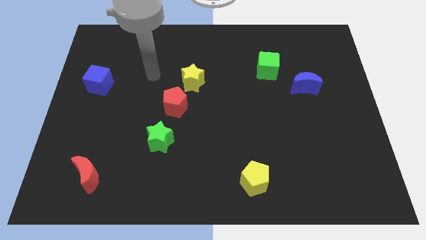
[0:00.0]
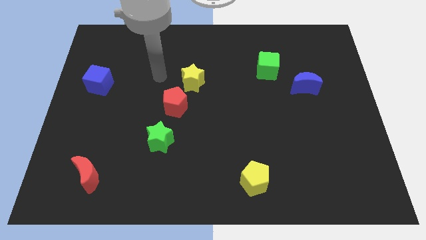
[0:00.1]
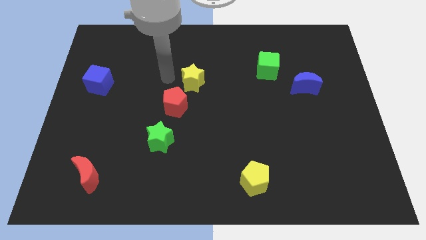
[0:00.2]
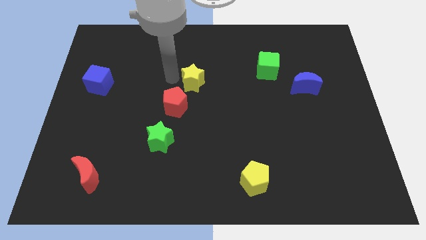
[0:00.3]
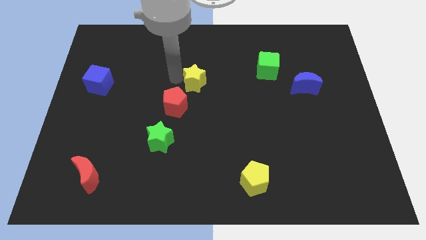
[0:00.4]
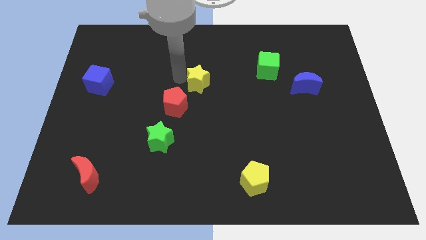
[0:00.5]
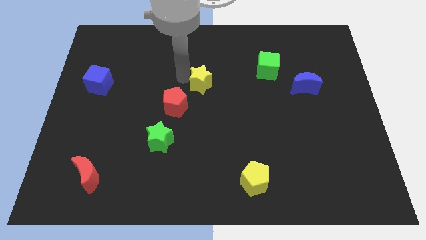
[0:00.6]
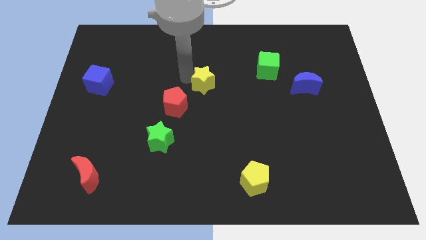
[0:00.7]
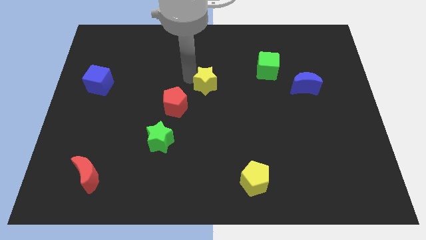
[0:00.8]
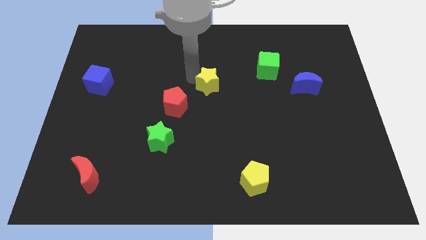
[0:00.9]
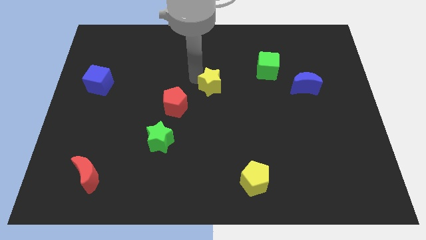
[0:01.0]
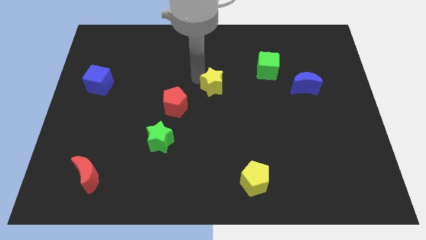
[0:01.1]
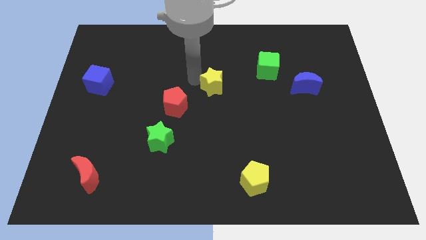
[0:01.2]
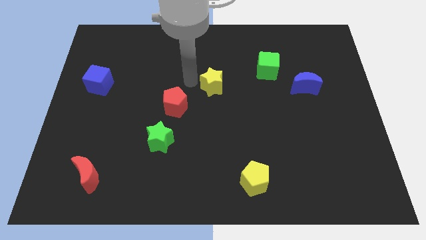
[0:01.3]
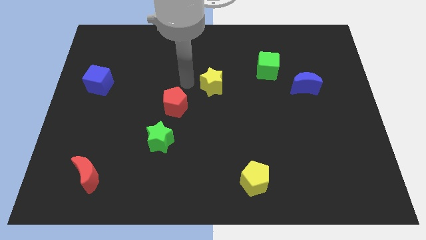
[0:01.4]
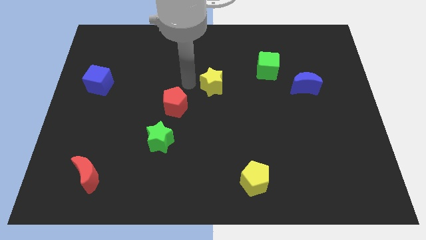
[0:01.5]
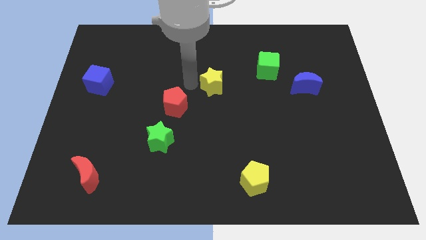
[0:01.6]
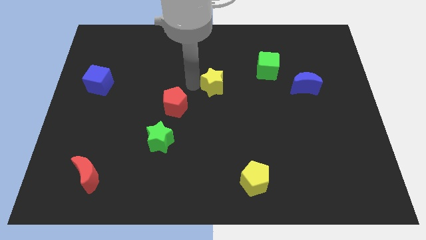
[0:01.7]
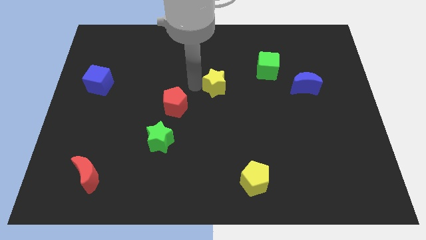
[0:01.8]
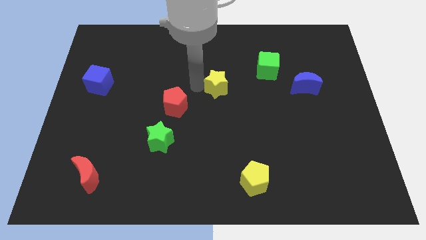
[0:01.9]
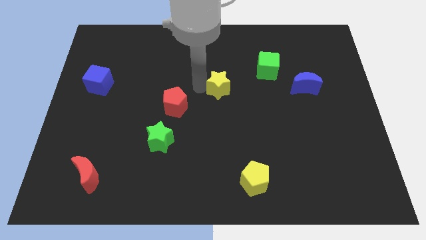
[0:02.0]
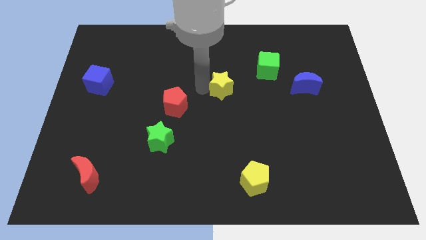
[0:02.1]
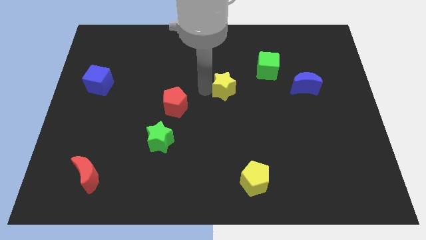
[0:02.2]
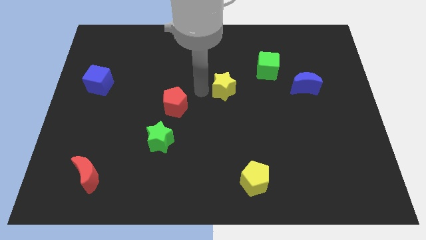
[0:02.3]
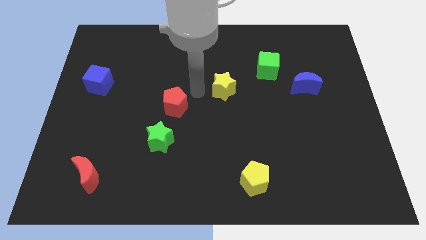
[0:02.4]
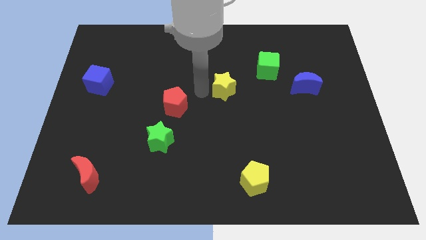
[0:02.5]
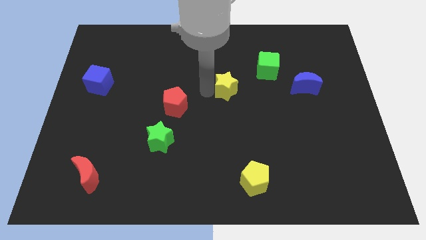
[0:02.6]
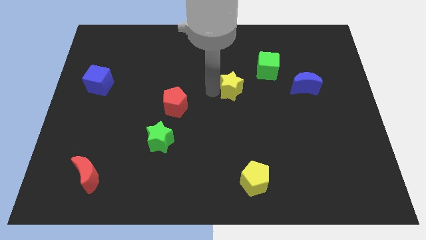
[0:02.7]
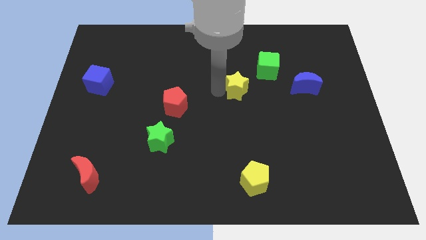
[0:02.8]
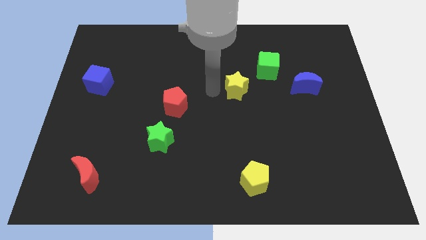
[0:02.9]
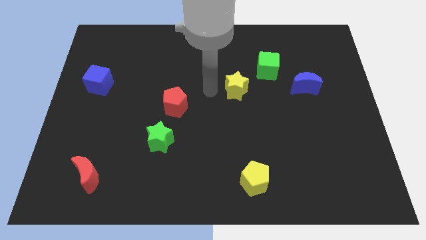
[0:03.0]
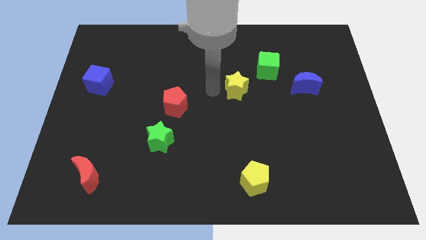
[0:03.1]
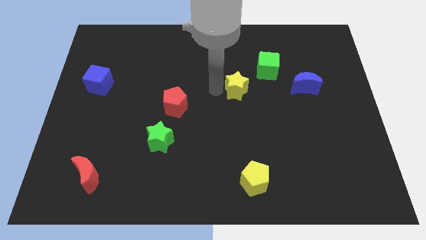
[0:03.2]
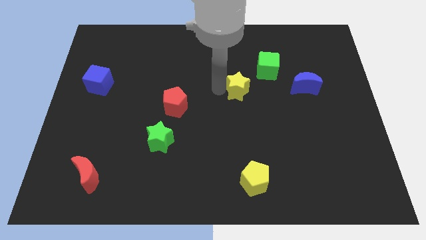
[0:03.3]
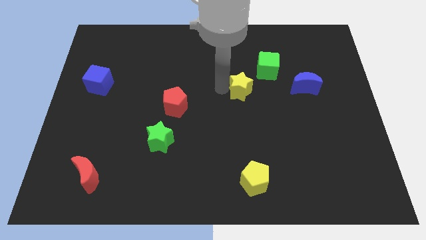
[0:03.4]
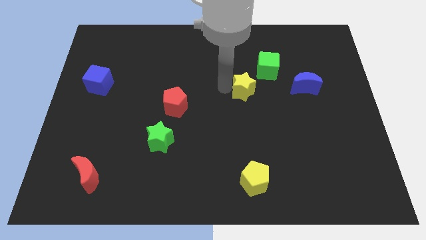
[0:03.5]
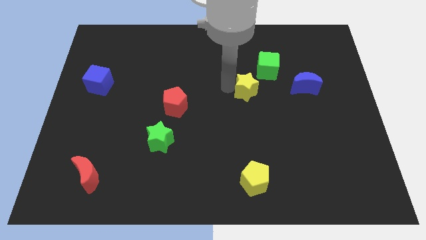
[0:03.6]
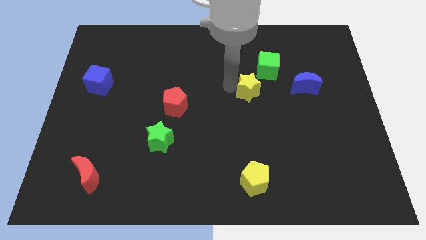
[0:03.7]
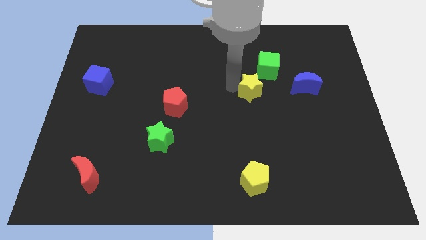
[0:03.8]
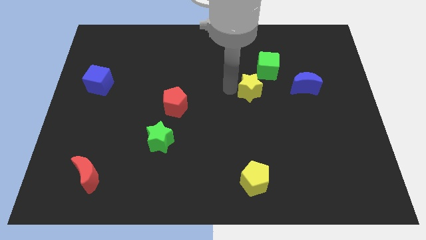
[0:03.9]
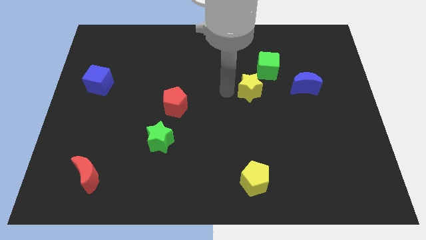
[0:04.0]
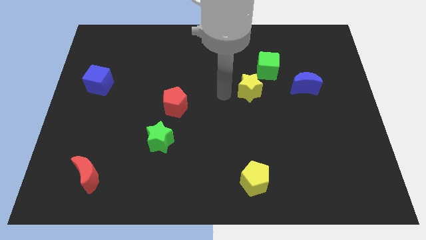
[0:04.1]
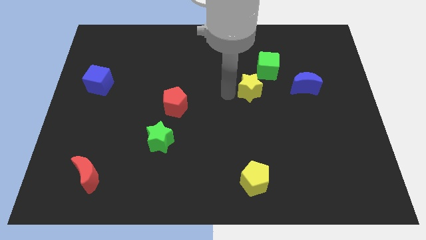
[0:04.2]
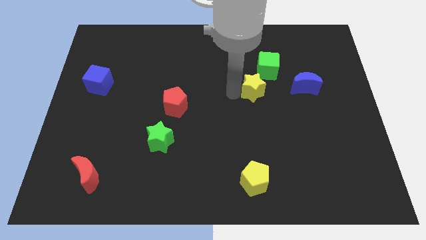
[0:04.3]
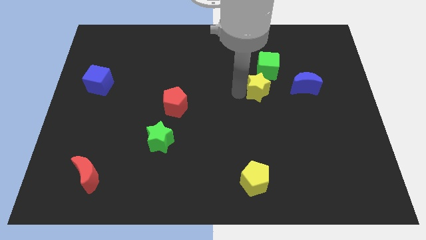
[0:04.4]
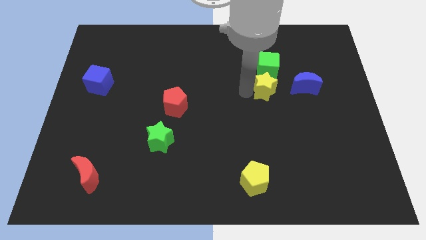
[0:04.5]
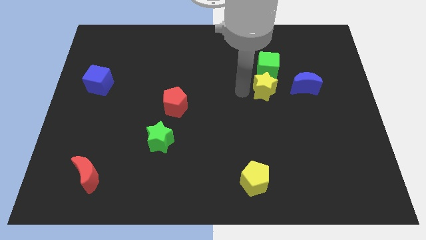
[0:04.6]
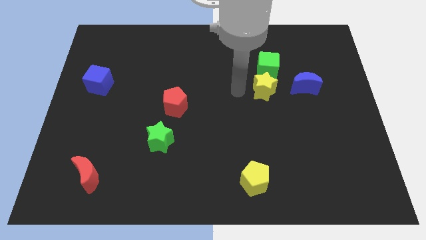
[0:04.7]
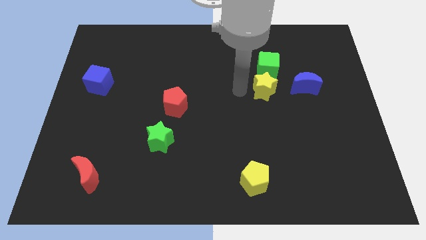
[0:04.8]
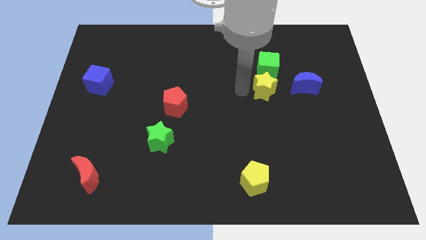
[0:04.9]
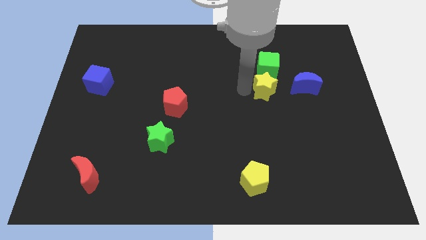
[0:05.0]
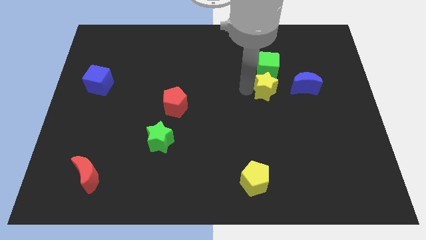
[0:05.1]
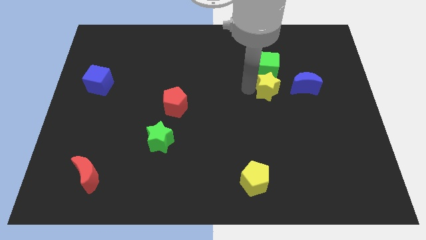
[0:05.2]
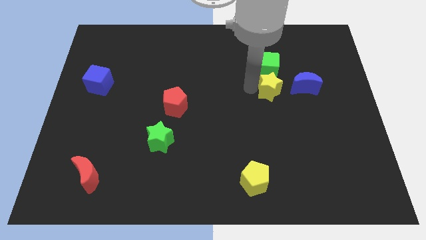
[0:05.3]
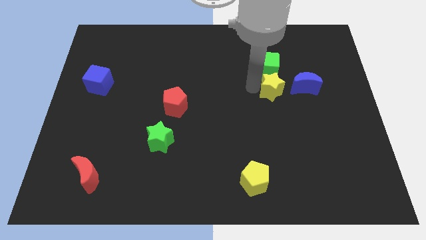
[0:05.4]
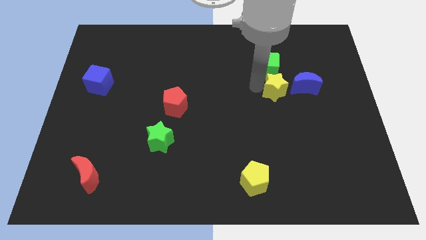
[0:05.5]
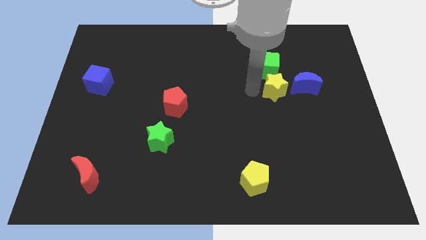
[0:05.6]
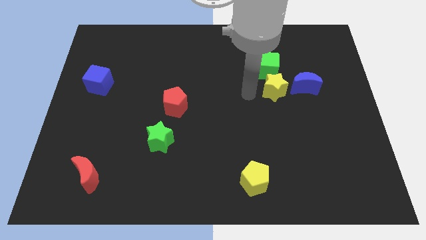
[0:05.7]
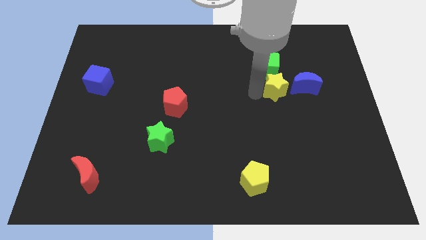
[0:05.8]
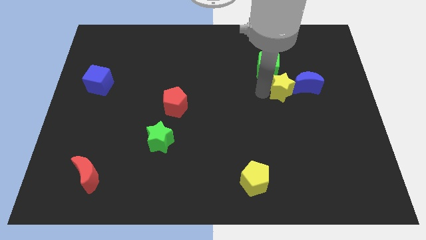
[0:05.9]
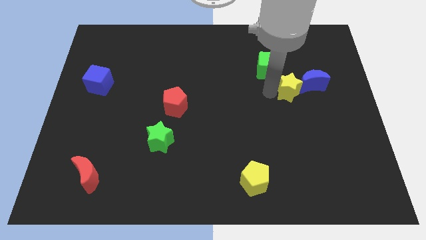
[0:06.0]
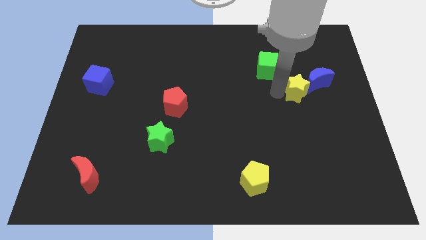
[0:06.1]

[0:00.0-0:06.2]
slide the yellow star to the blue moon

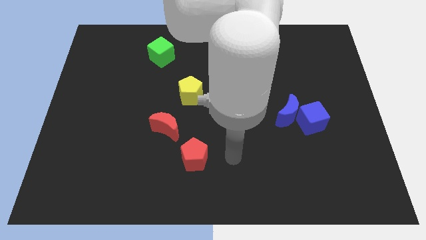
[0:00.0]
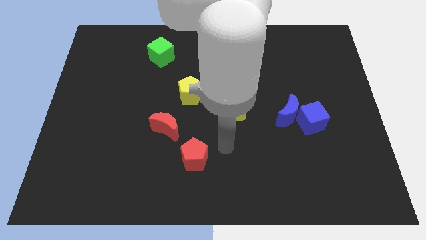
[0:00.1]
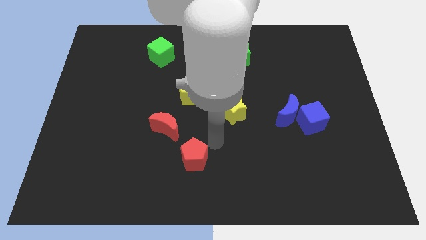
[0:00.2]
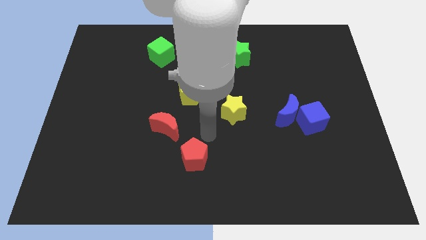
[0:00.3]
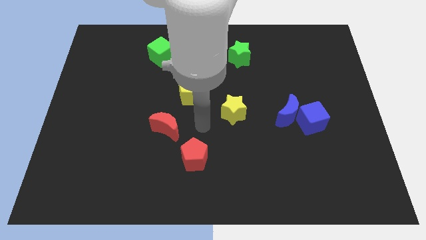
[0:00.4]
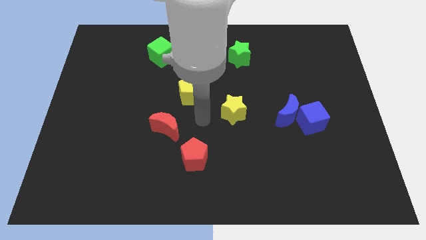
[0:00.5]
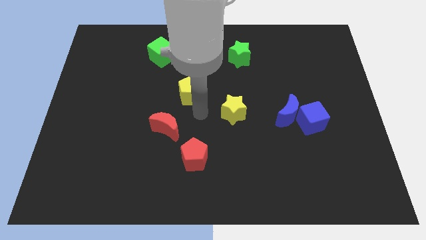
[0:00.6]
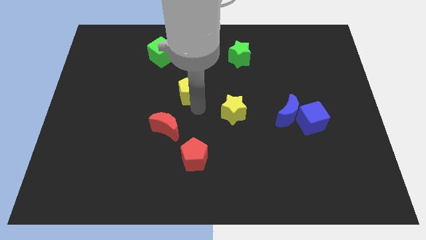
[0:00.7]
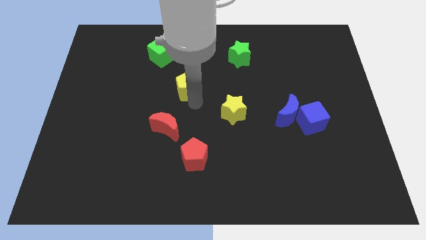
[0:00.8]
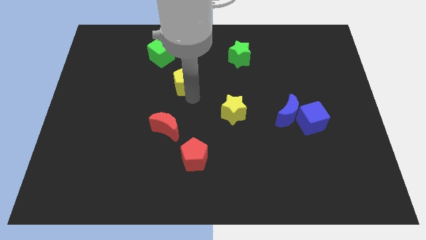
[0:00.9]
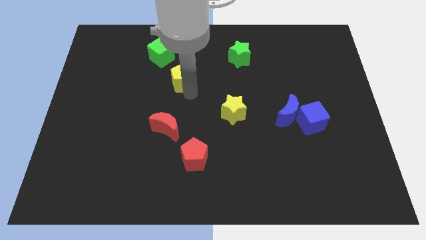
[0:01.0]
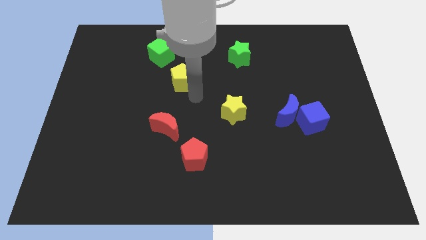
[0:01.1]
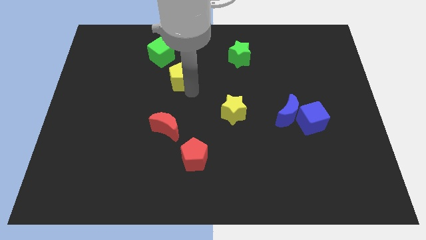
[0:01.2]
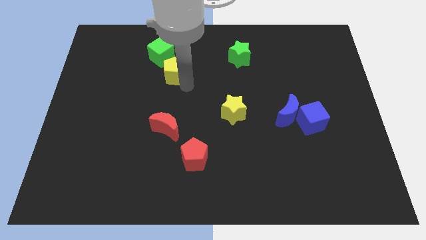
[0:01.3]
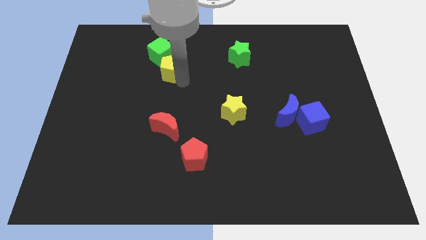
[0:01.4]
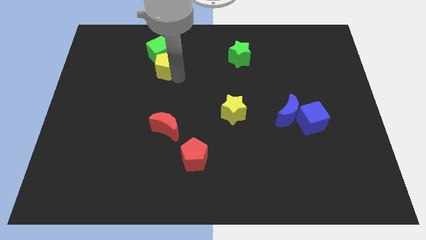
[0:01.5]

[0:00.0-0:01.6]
slide the yellow pentagon close to the green cube
